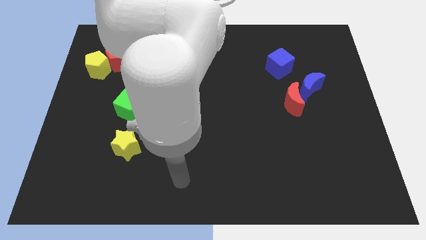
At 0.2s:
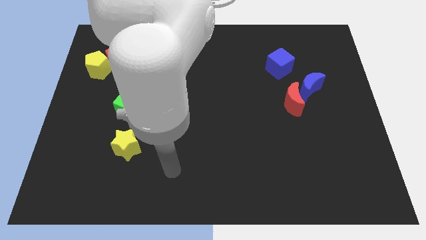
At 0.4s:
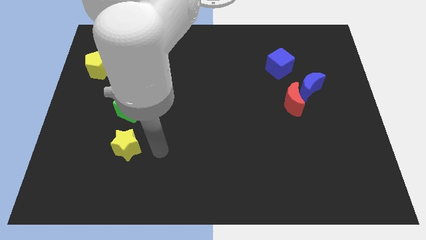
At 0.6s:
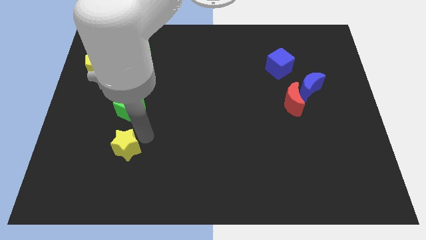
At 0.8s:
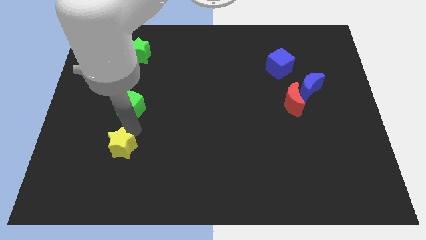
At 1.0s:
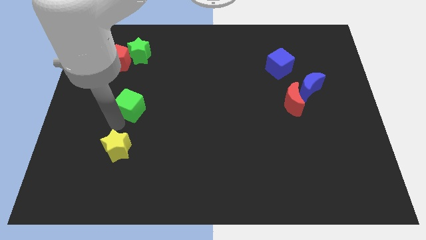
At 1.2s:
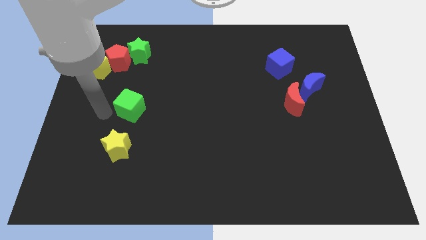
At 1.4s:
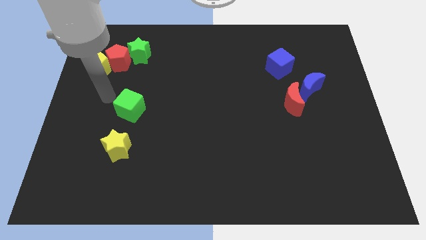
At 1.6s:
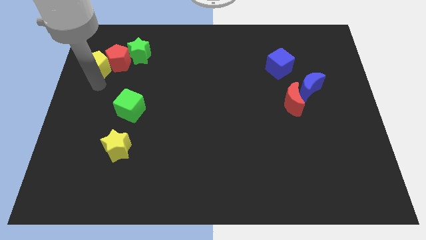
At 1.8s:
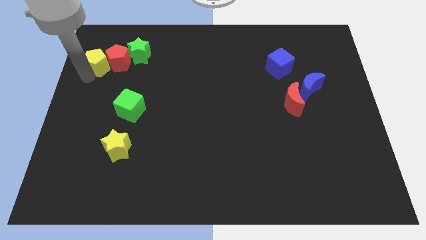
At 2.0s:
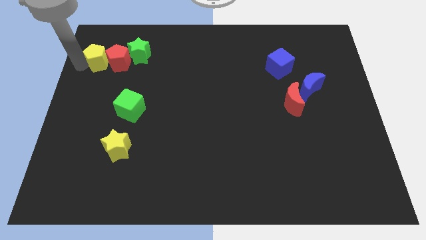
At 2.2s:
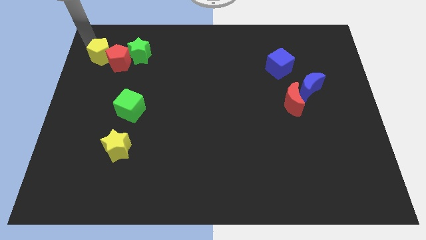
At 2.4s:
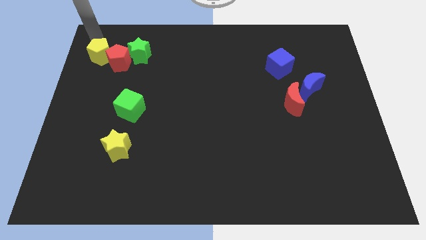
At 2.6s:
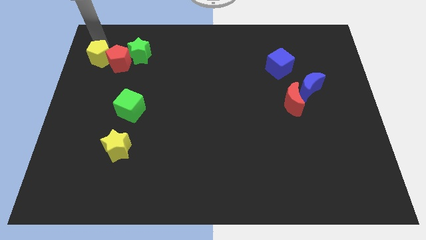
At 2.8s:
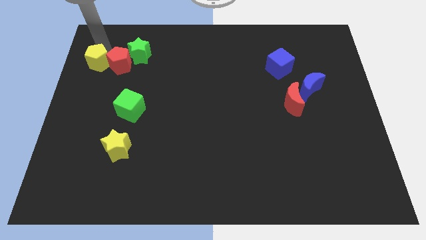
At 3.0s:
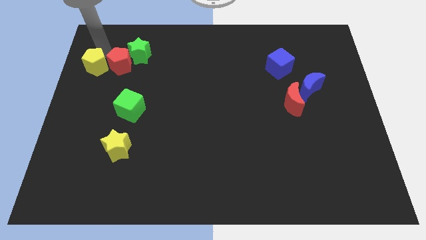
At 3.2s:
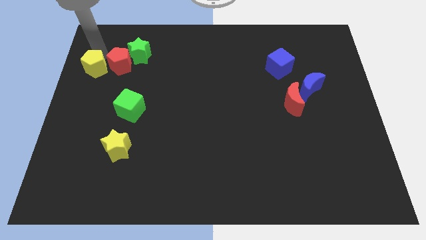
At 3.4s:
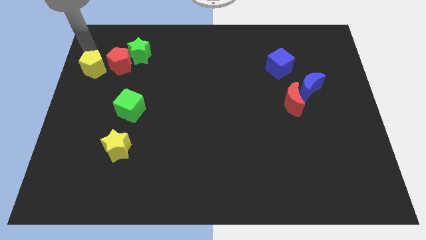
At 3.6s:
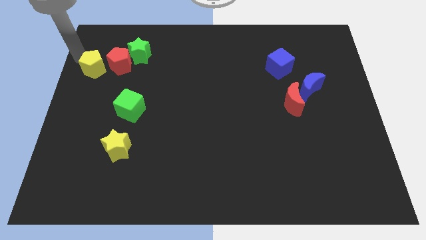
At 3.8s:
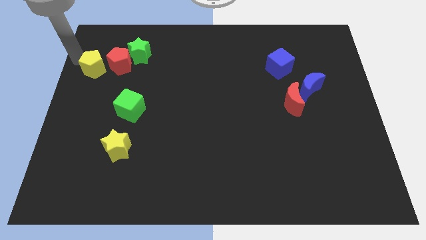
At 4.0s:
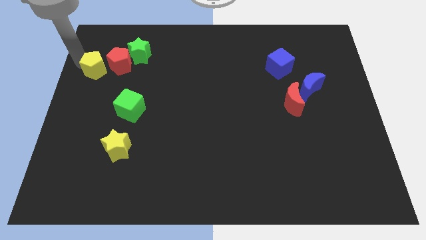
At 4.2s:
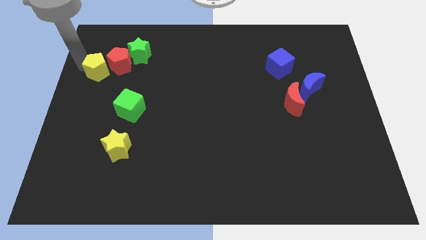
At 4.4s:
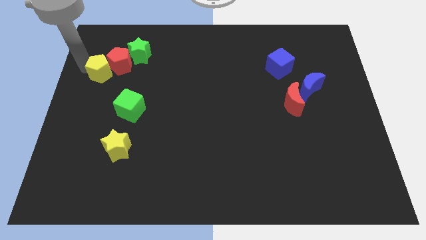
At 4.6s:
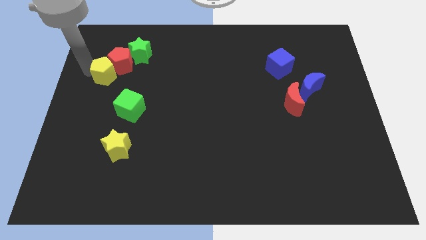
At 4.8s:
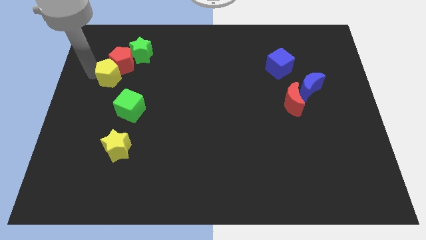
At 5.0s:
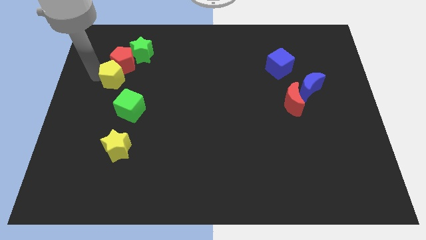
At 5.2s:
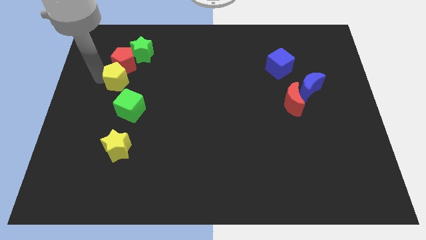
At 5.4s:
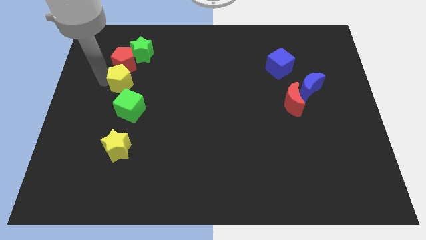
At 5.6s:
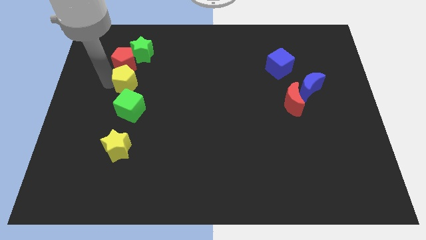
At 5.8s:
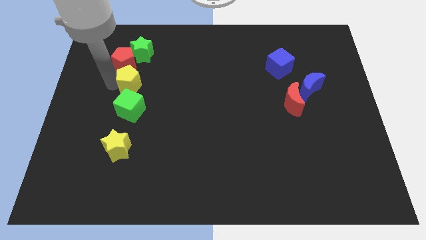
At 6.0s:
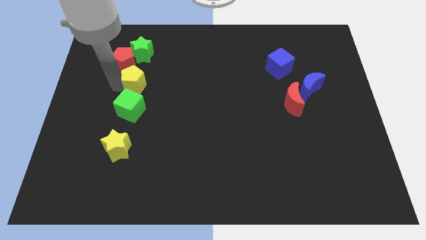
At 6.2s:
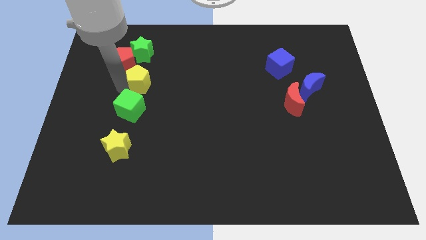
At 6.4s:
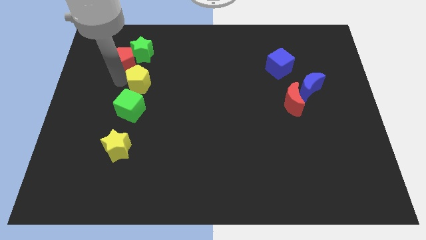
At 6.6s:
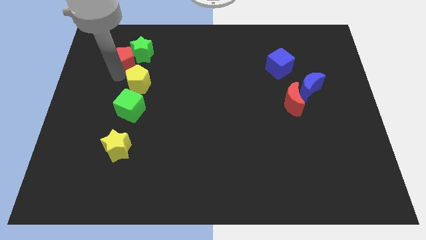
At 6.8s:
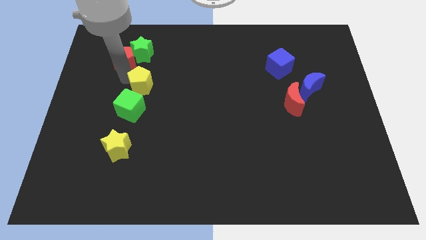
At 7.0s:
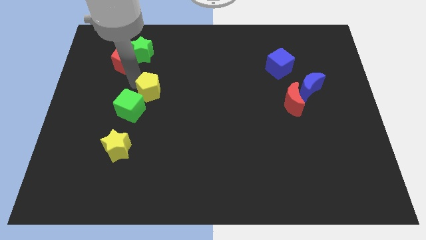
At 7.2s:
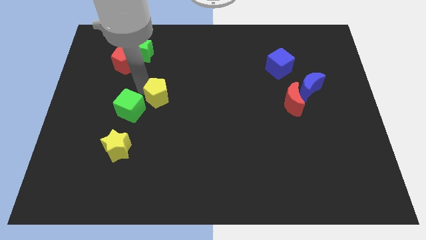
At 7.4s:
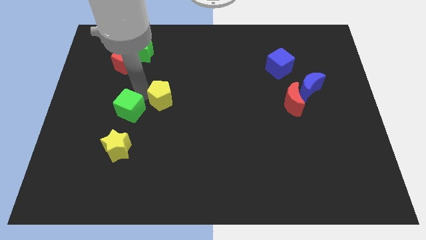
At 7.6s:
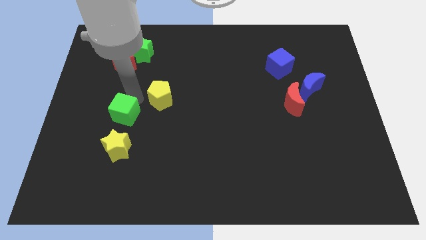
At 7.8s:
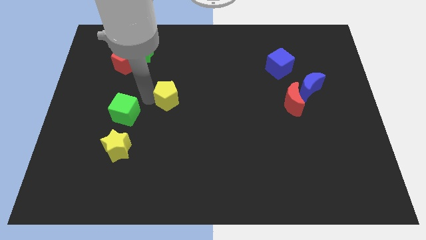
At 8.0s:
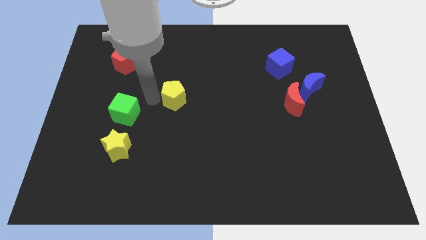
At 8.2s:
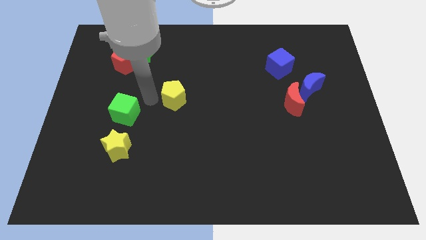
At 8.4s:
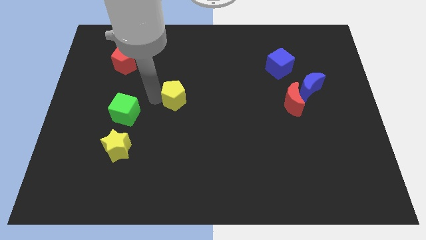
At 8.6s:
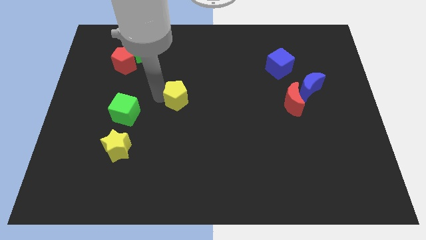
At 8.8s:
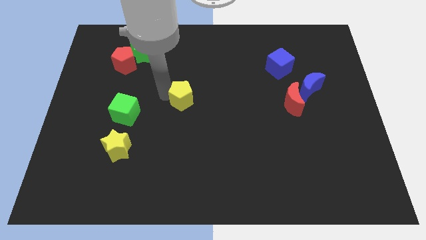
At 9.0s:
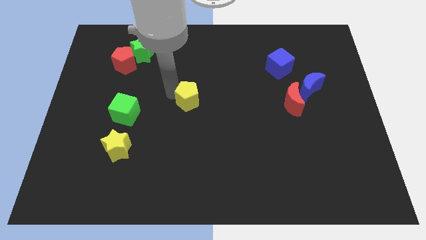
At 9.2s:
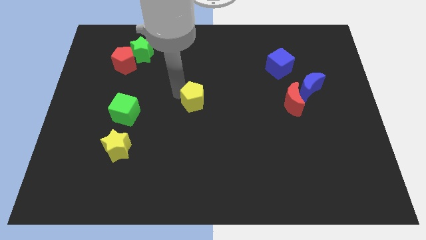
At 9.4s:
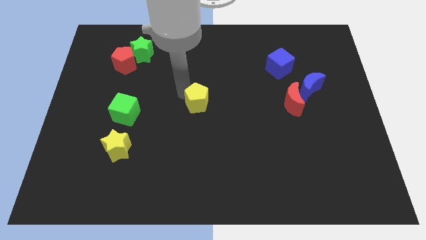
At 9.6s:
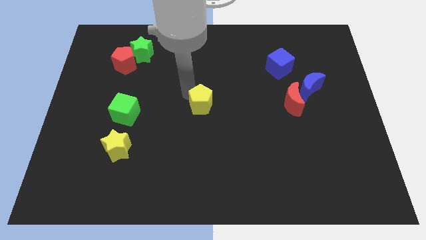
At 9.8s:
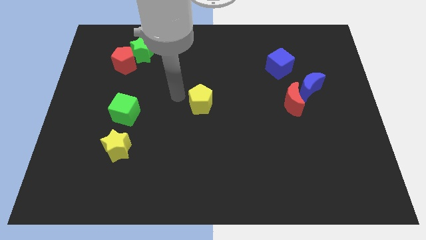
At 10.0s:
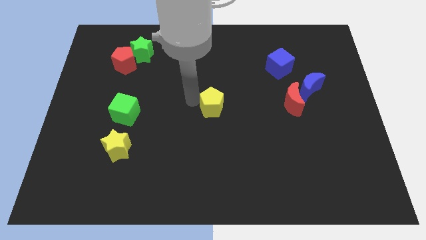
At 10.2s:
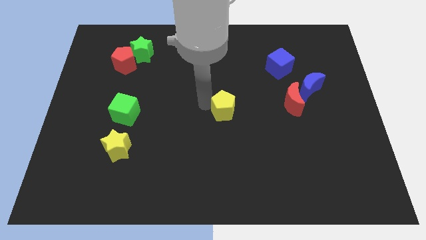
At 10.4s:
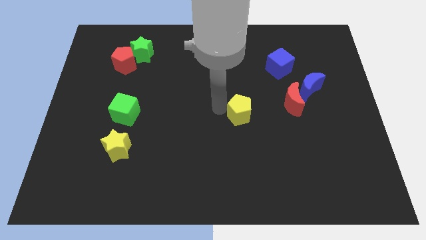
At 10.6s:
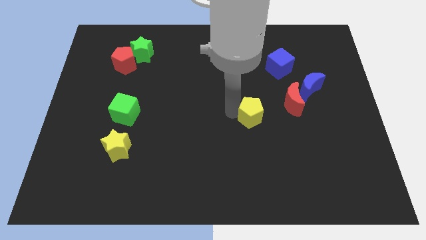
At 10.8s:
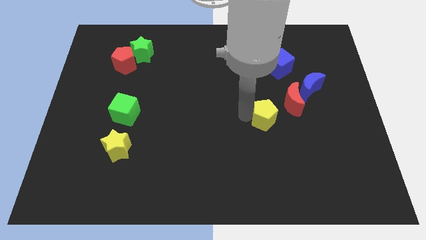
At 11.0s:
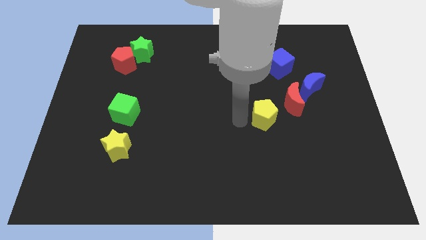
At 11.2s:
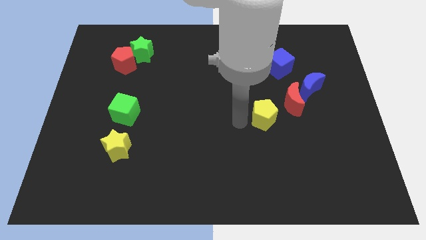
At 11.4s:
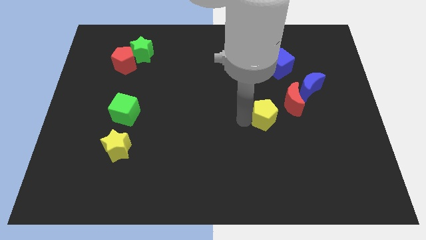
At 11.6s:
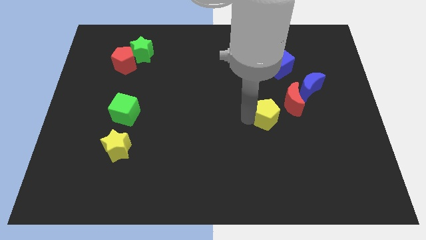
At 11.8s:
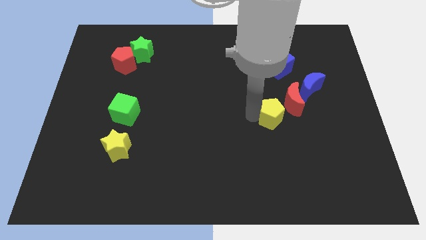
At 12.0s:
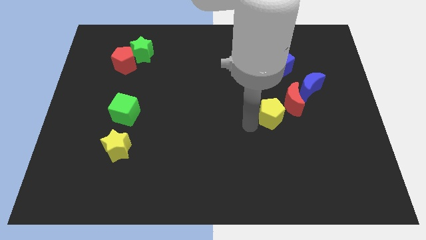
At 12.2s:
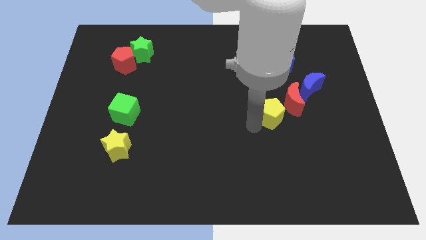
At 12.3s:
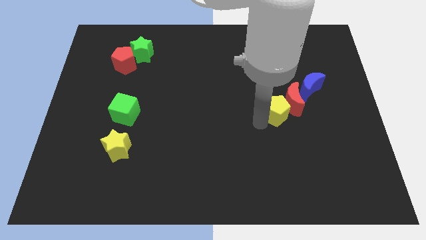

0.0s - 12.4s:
put the yellow pentagon diagonally down and to the left of the blue moon
